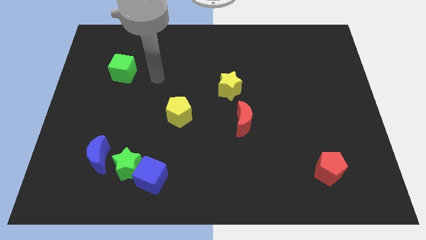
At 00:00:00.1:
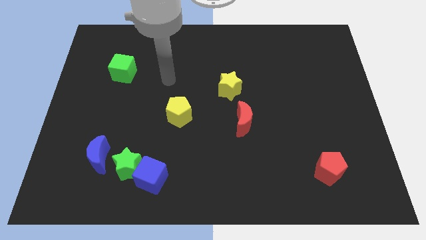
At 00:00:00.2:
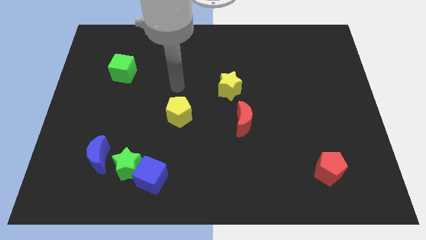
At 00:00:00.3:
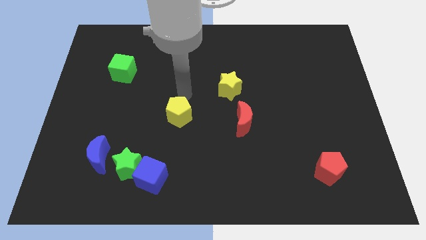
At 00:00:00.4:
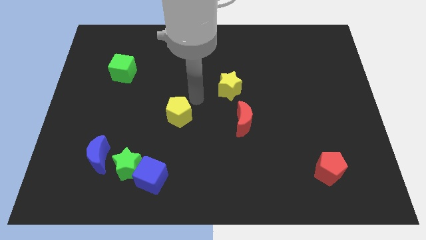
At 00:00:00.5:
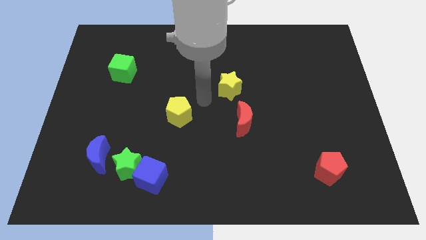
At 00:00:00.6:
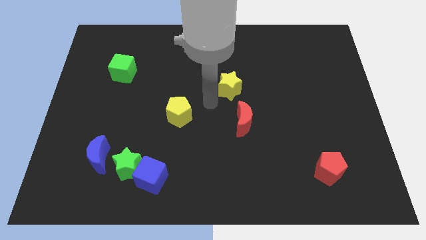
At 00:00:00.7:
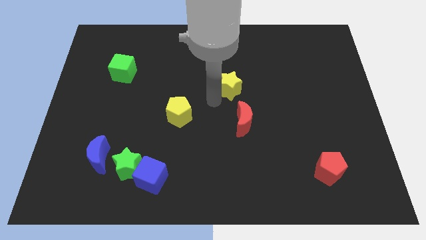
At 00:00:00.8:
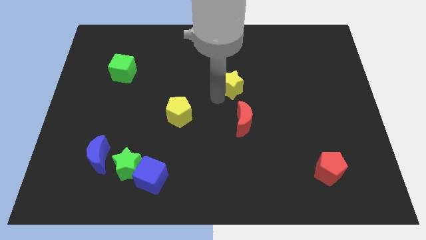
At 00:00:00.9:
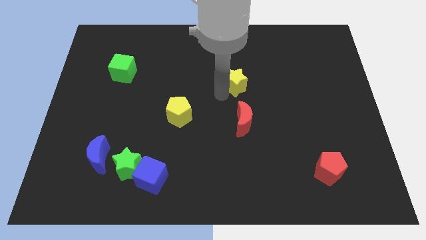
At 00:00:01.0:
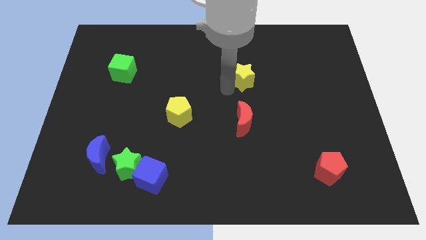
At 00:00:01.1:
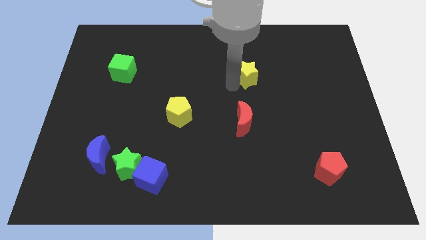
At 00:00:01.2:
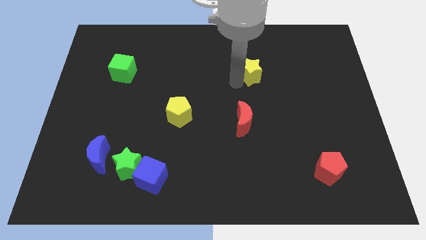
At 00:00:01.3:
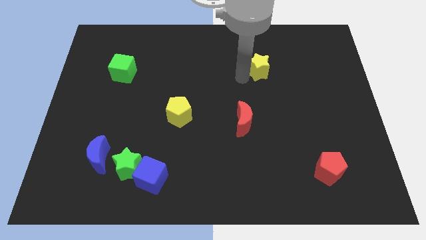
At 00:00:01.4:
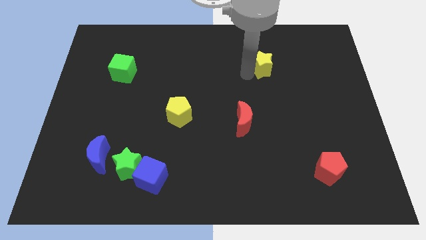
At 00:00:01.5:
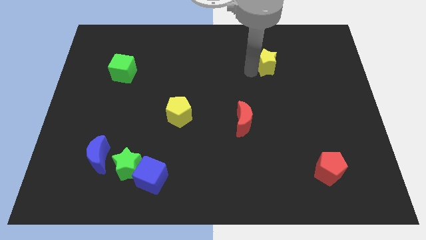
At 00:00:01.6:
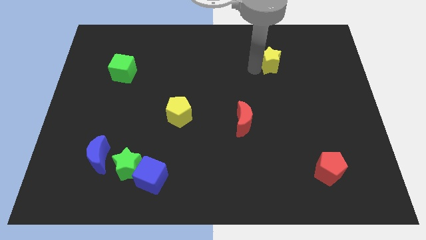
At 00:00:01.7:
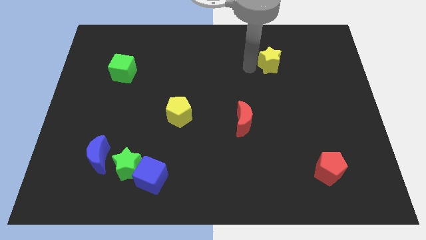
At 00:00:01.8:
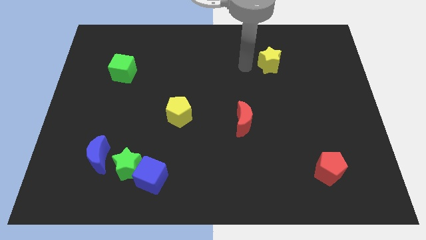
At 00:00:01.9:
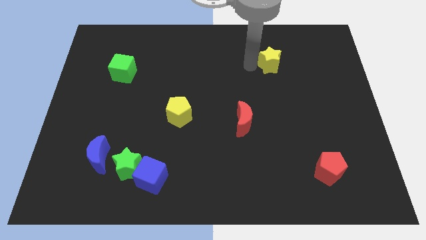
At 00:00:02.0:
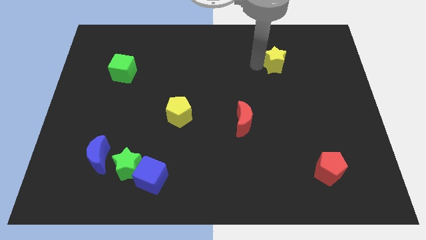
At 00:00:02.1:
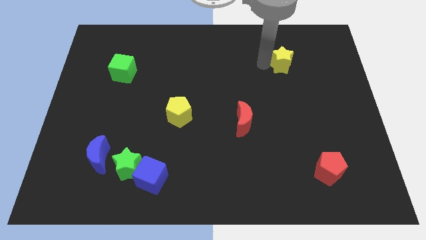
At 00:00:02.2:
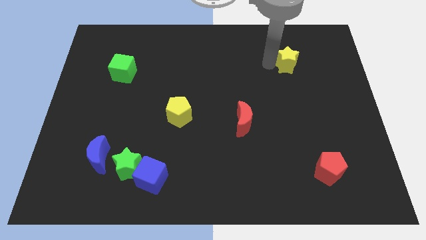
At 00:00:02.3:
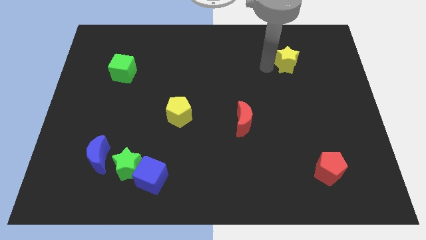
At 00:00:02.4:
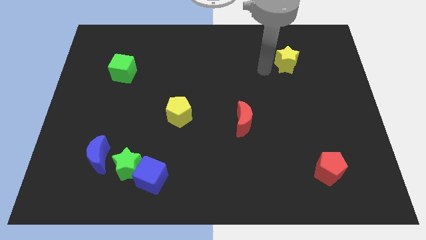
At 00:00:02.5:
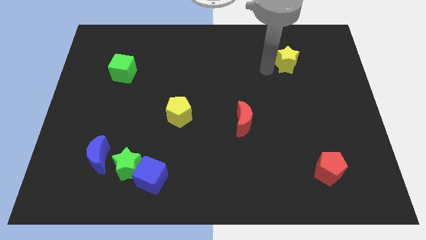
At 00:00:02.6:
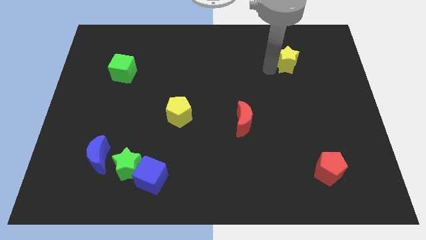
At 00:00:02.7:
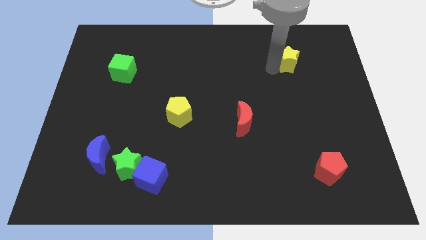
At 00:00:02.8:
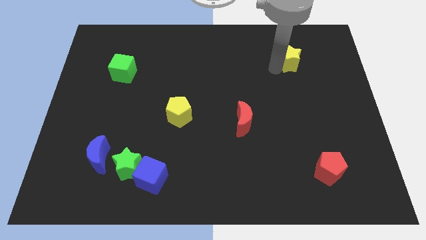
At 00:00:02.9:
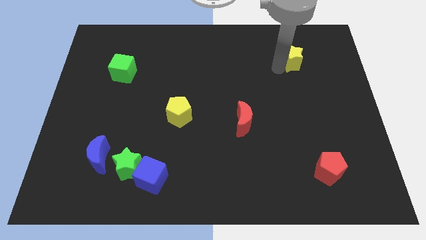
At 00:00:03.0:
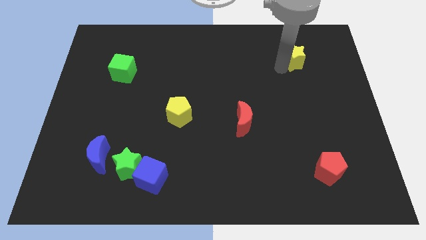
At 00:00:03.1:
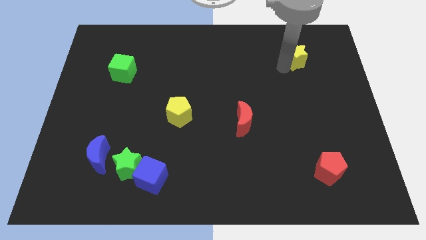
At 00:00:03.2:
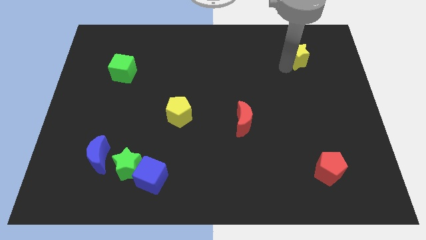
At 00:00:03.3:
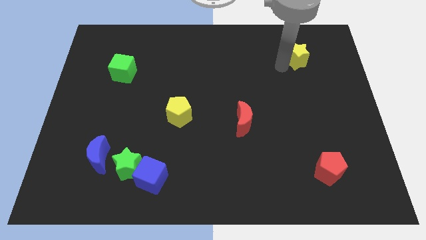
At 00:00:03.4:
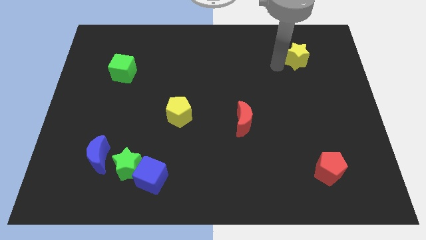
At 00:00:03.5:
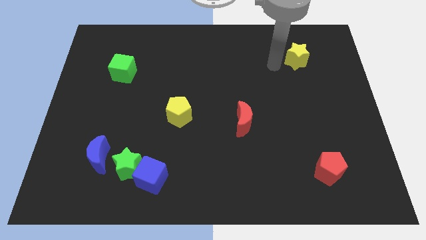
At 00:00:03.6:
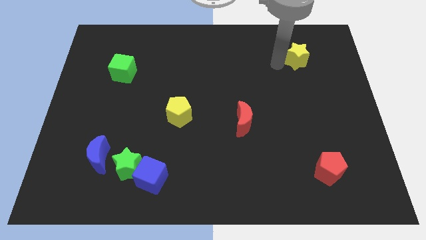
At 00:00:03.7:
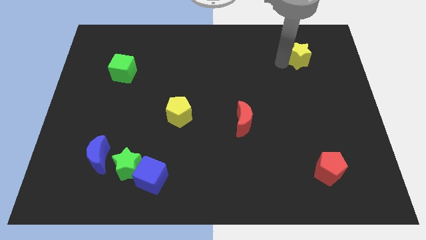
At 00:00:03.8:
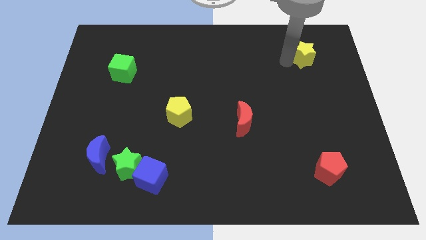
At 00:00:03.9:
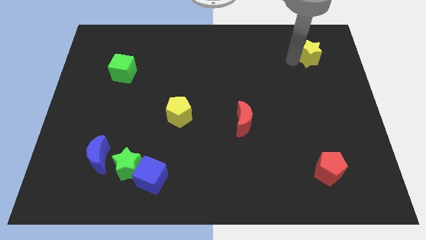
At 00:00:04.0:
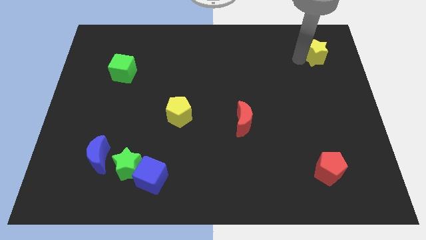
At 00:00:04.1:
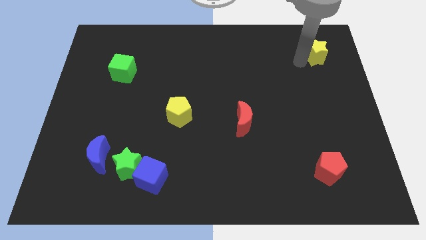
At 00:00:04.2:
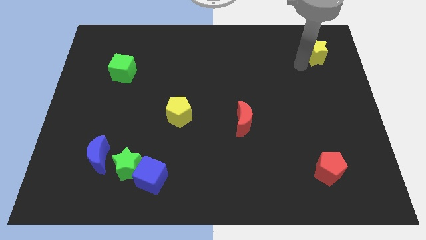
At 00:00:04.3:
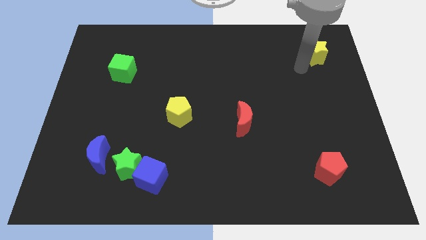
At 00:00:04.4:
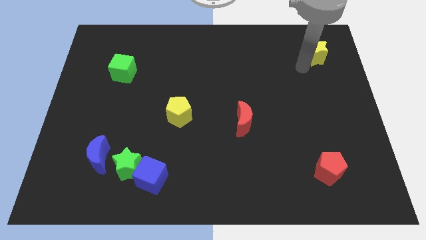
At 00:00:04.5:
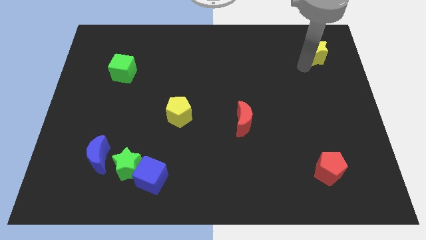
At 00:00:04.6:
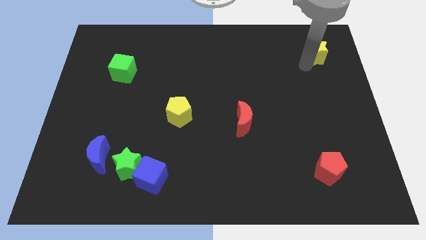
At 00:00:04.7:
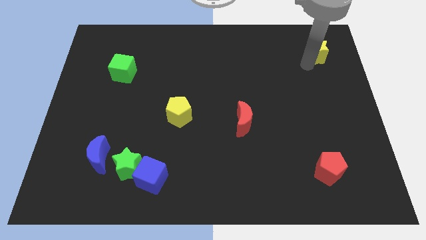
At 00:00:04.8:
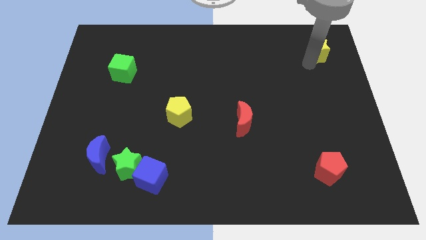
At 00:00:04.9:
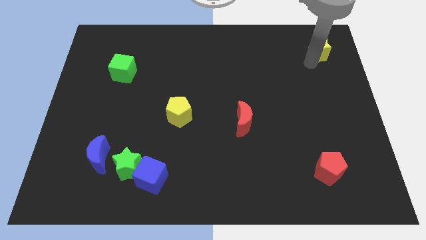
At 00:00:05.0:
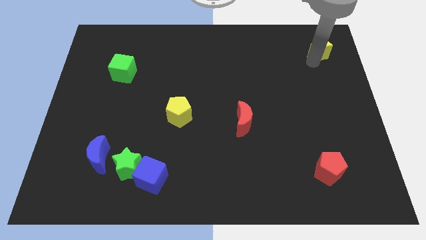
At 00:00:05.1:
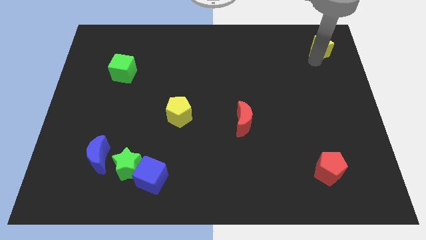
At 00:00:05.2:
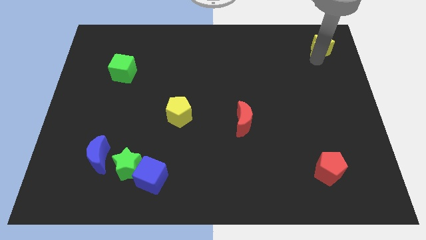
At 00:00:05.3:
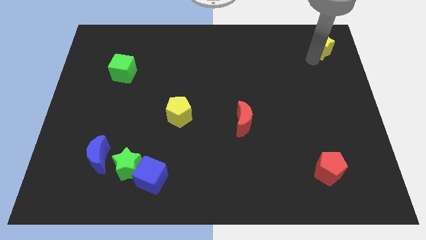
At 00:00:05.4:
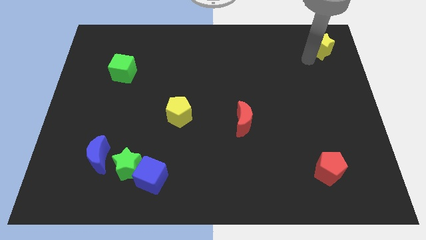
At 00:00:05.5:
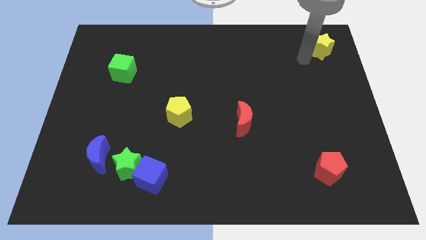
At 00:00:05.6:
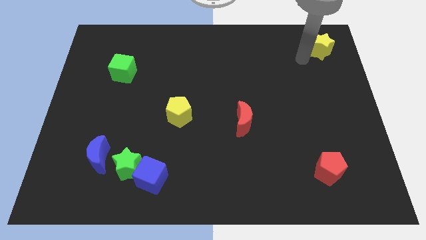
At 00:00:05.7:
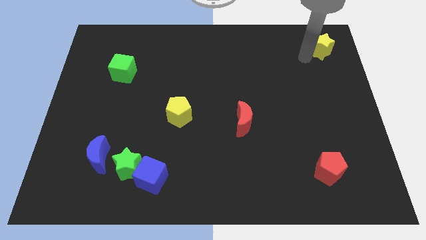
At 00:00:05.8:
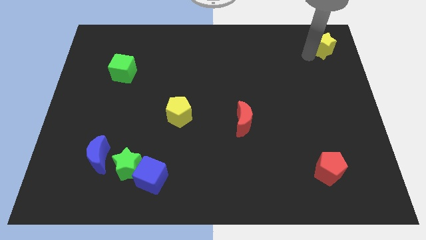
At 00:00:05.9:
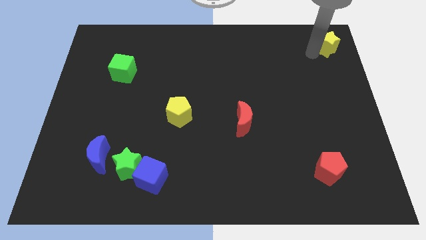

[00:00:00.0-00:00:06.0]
put the yellow star to the upper right corner

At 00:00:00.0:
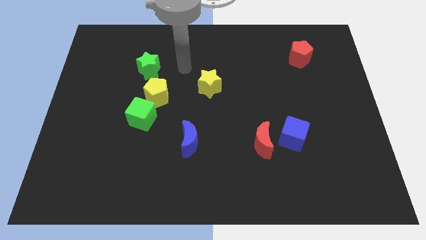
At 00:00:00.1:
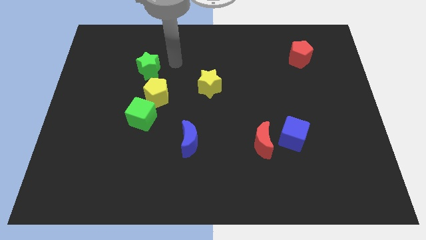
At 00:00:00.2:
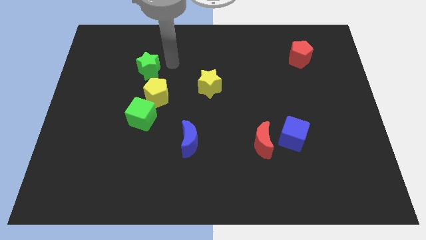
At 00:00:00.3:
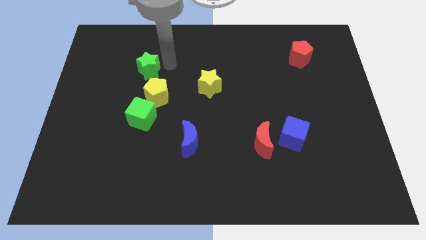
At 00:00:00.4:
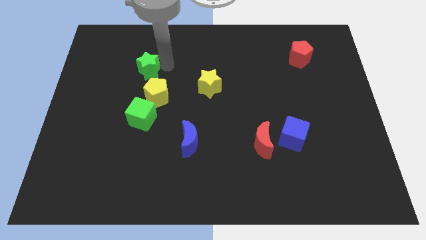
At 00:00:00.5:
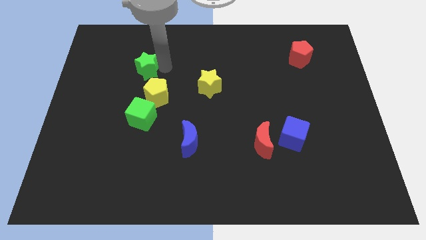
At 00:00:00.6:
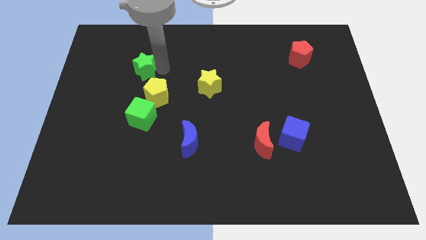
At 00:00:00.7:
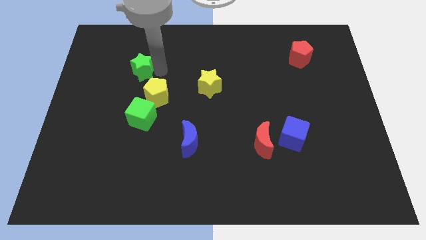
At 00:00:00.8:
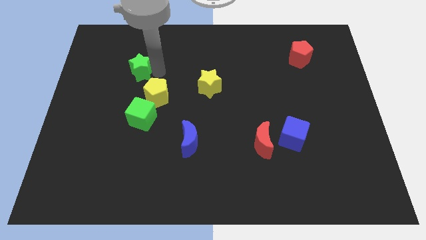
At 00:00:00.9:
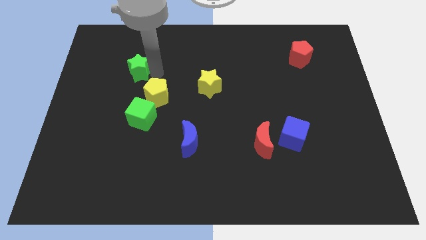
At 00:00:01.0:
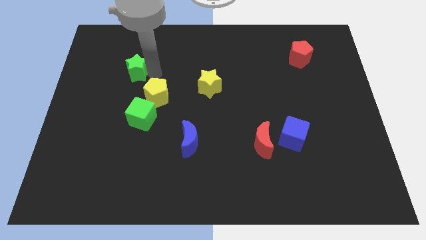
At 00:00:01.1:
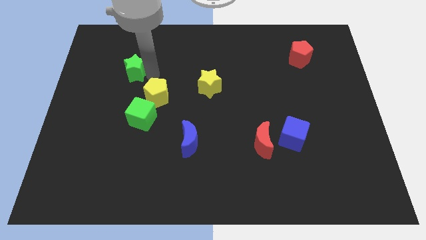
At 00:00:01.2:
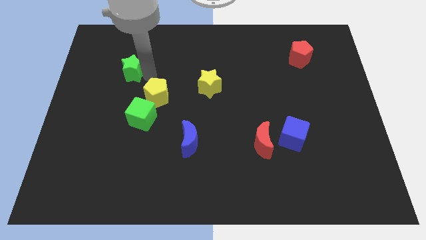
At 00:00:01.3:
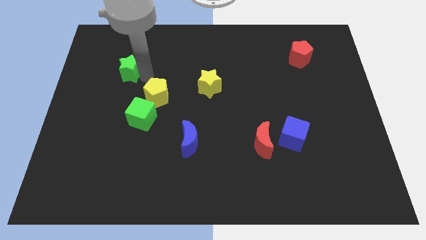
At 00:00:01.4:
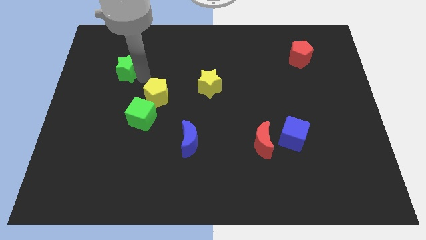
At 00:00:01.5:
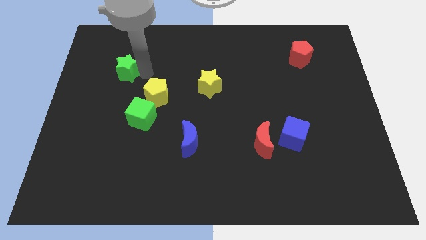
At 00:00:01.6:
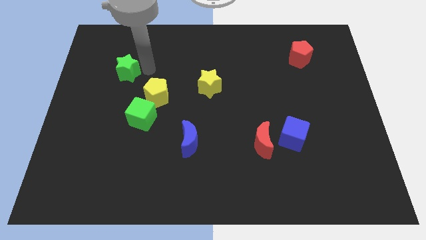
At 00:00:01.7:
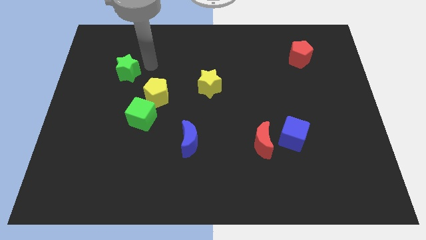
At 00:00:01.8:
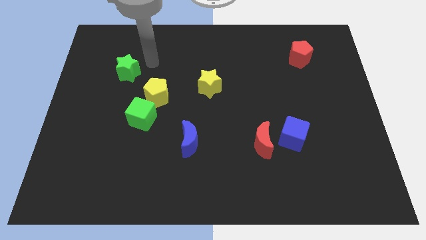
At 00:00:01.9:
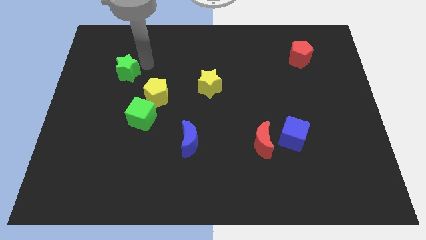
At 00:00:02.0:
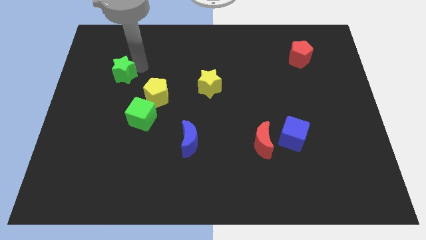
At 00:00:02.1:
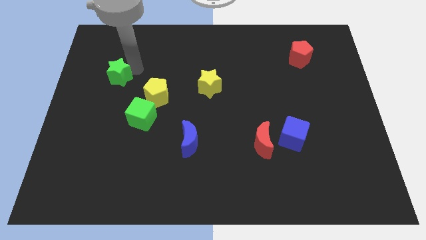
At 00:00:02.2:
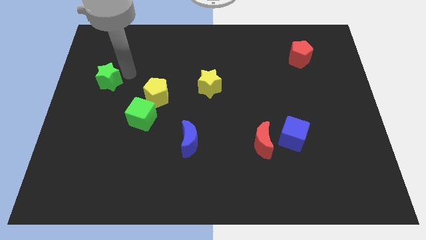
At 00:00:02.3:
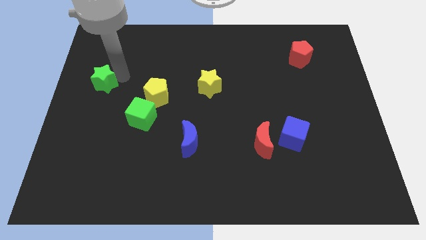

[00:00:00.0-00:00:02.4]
slide the green star to the left side of the board
